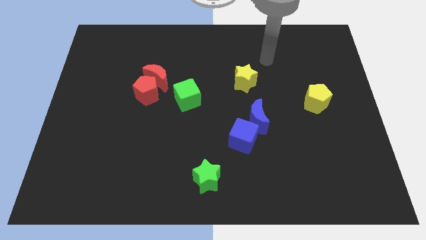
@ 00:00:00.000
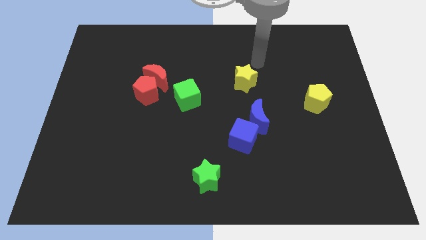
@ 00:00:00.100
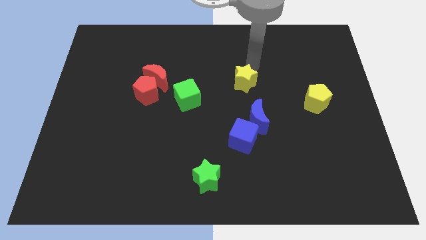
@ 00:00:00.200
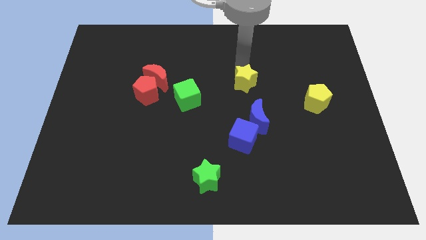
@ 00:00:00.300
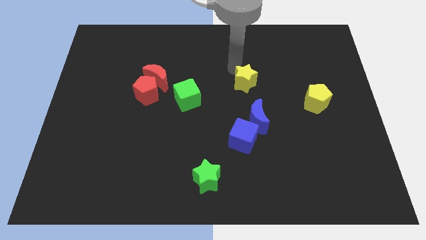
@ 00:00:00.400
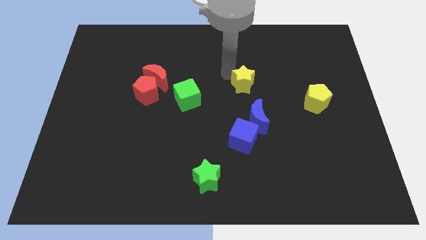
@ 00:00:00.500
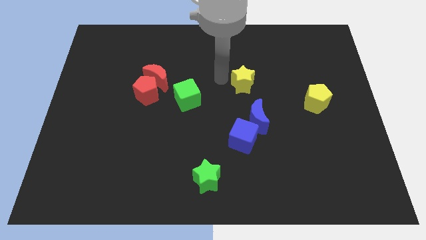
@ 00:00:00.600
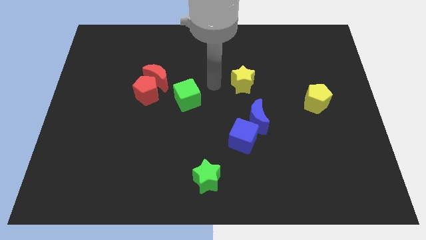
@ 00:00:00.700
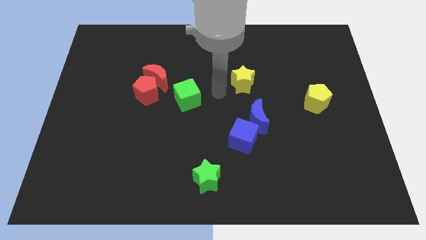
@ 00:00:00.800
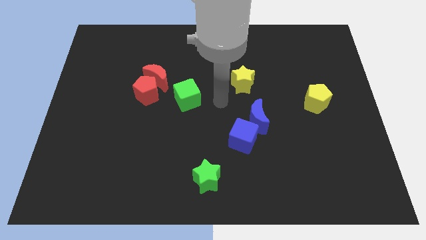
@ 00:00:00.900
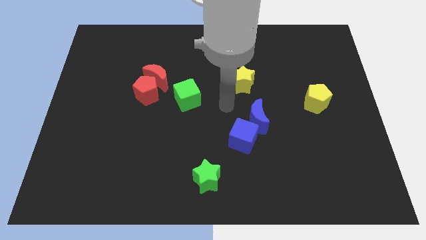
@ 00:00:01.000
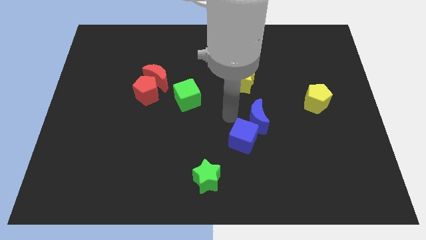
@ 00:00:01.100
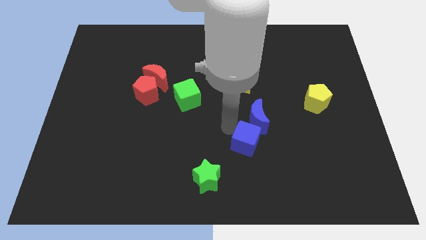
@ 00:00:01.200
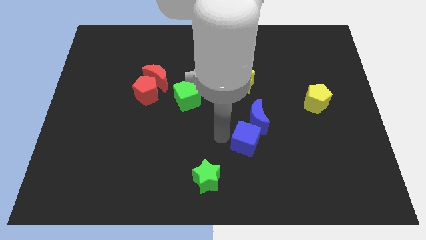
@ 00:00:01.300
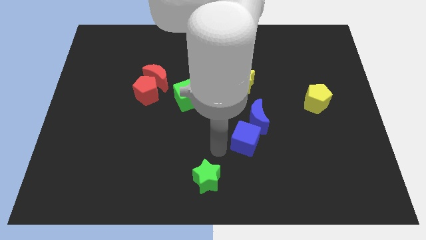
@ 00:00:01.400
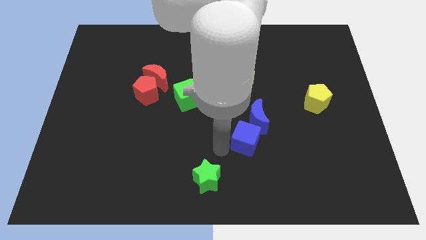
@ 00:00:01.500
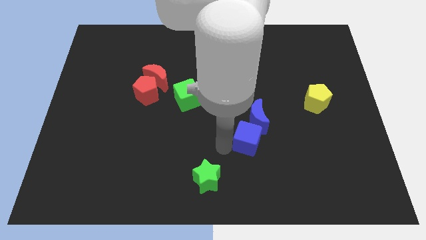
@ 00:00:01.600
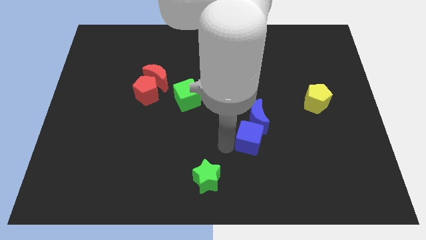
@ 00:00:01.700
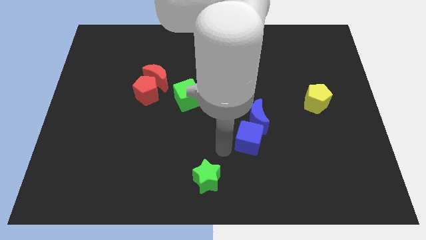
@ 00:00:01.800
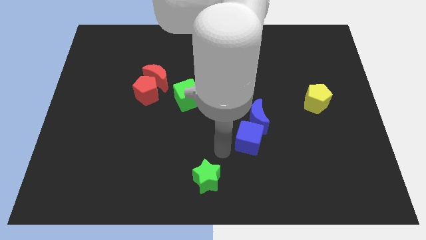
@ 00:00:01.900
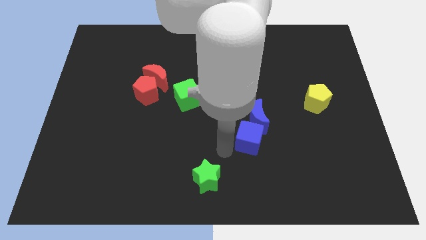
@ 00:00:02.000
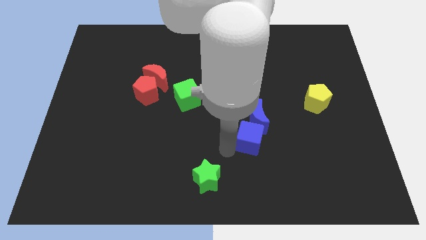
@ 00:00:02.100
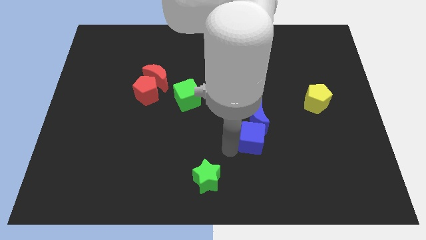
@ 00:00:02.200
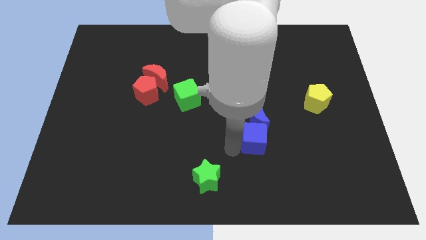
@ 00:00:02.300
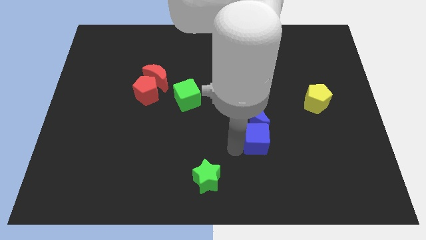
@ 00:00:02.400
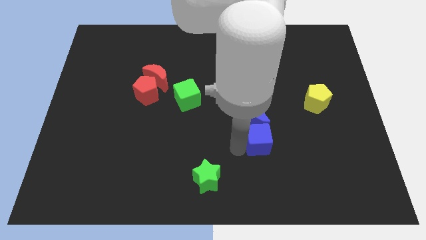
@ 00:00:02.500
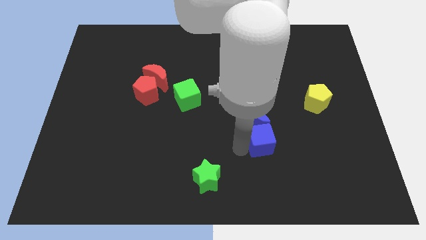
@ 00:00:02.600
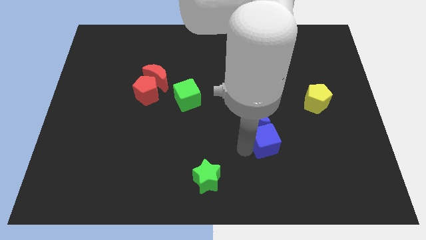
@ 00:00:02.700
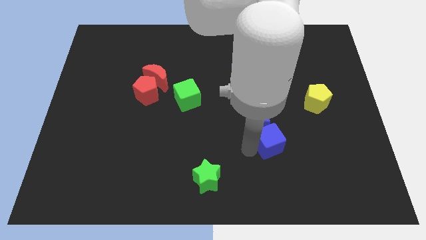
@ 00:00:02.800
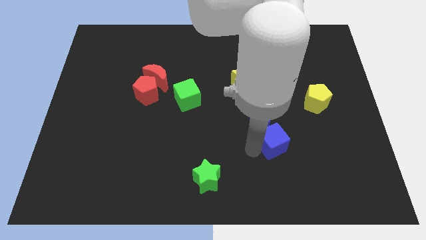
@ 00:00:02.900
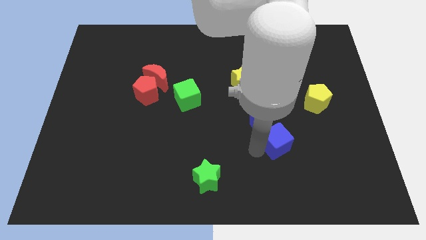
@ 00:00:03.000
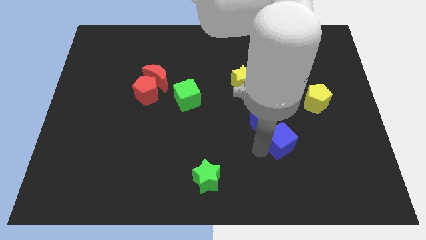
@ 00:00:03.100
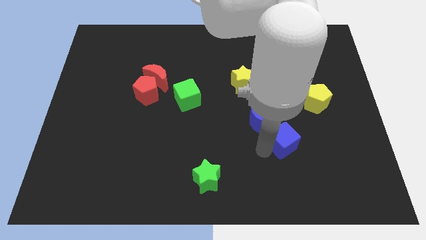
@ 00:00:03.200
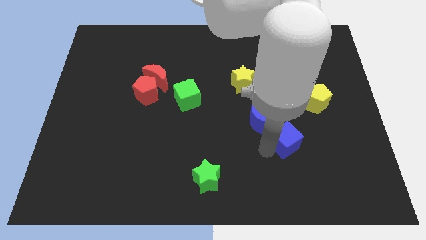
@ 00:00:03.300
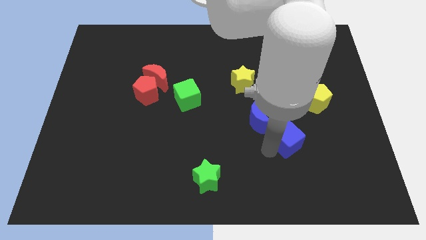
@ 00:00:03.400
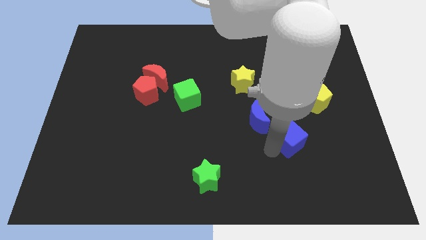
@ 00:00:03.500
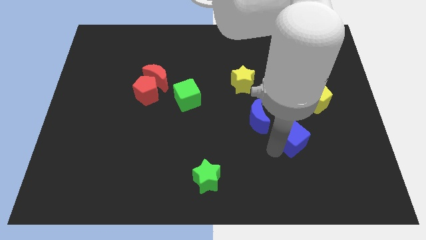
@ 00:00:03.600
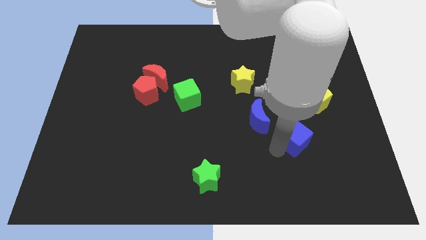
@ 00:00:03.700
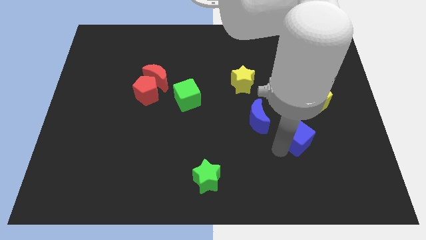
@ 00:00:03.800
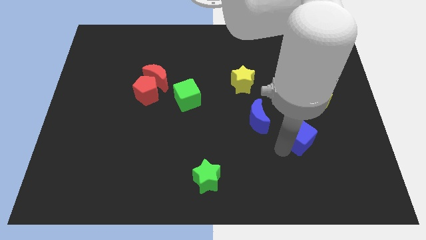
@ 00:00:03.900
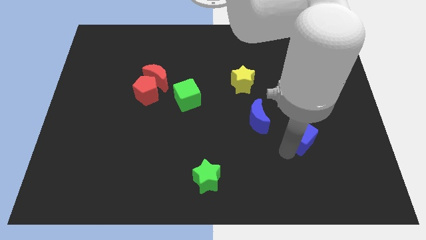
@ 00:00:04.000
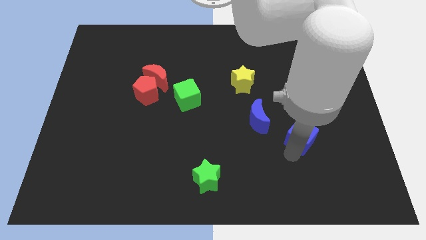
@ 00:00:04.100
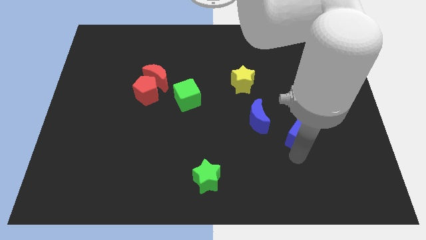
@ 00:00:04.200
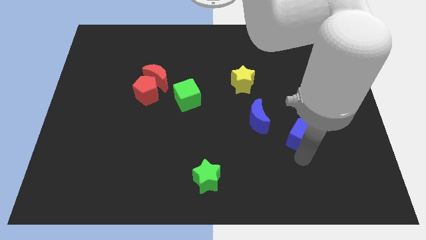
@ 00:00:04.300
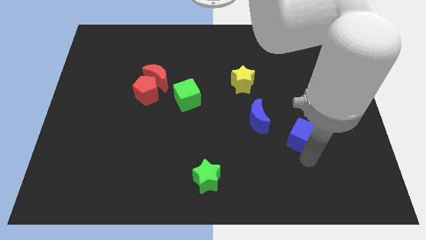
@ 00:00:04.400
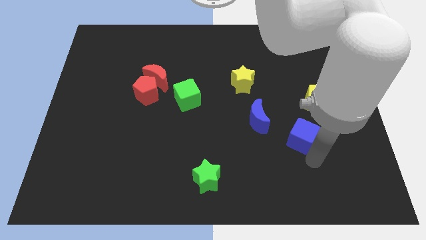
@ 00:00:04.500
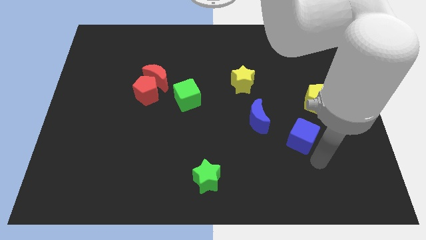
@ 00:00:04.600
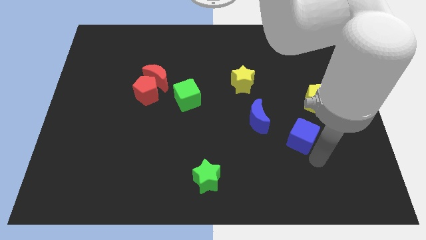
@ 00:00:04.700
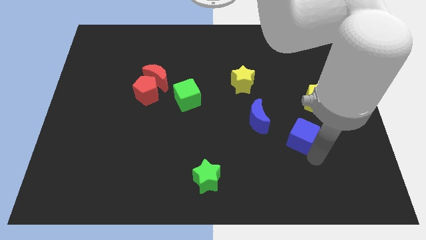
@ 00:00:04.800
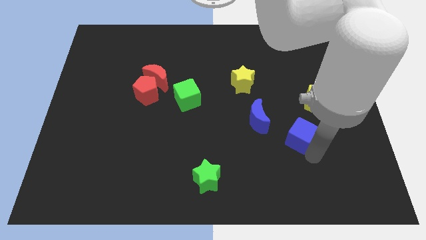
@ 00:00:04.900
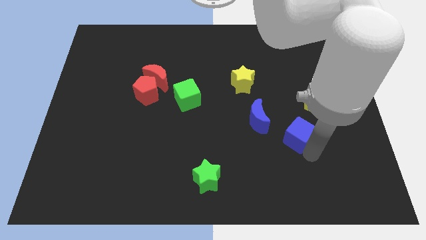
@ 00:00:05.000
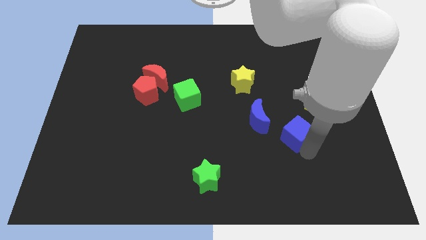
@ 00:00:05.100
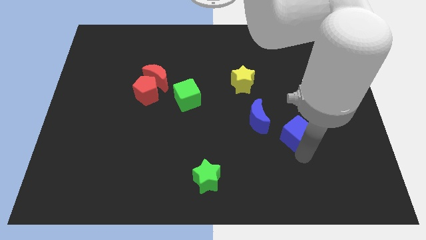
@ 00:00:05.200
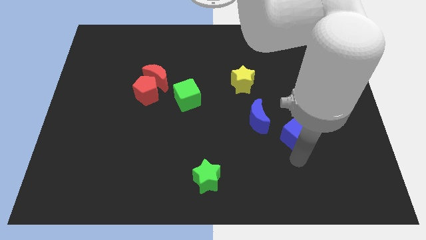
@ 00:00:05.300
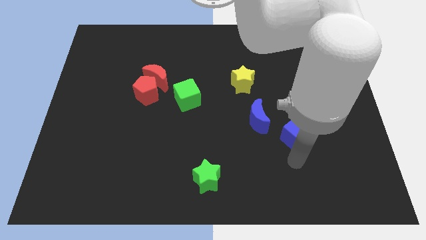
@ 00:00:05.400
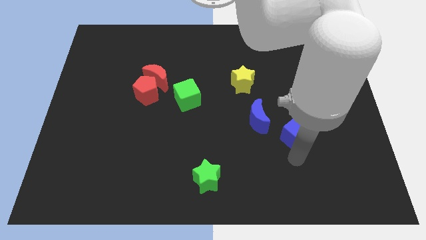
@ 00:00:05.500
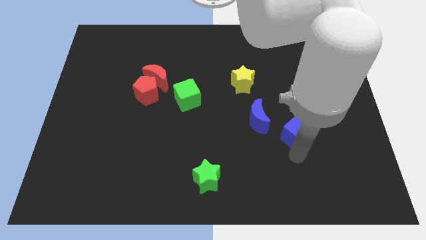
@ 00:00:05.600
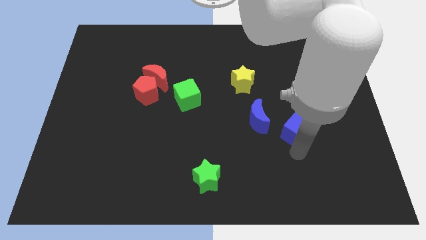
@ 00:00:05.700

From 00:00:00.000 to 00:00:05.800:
push the blue cube diagonally up and right somewhat

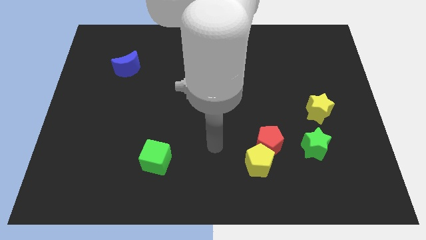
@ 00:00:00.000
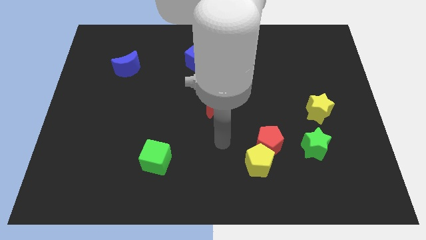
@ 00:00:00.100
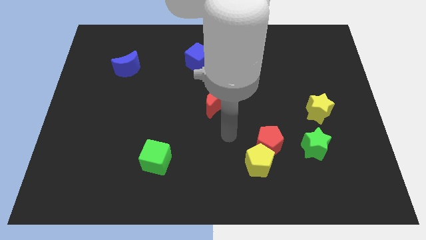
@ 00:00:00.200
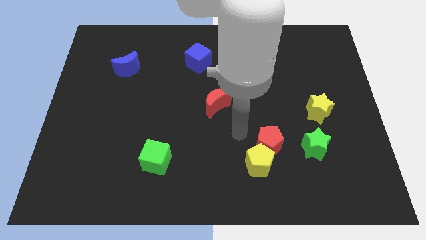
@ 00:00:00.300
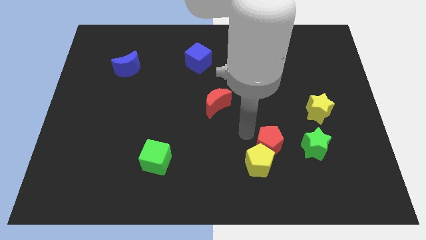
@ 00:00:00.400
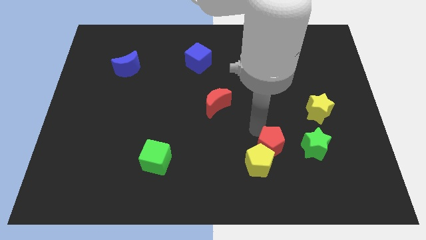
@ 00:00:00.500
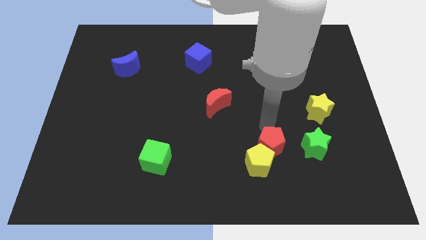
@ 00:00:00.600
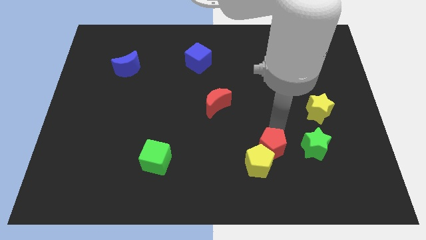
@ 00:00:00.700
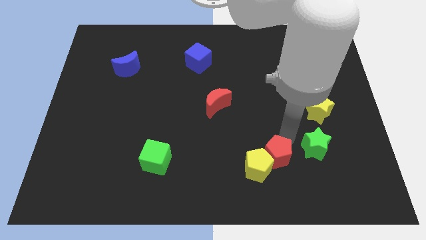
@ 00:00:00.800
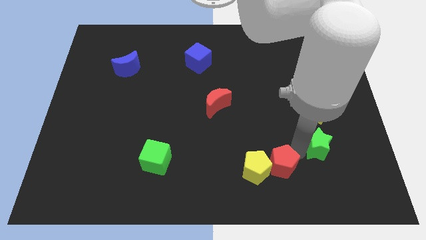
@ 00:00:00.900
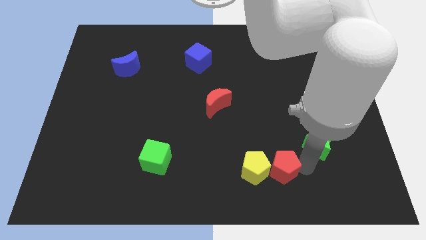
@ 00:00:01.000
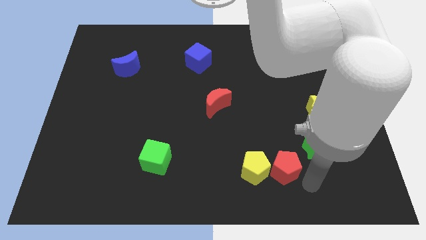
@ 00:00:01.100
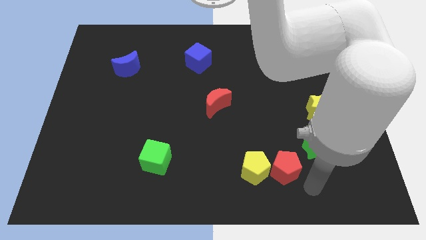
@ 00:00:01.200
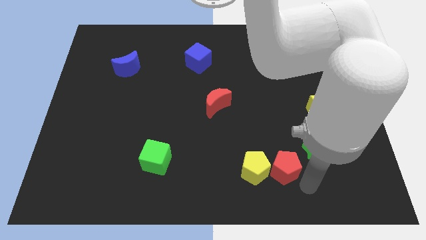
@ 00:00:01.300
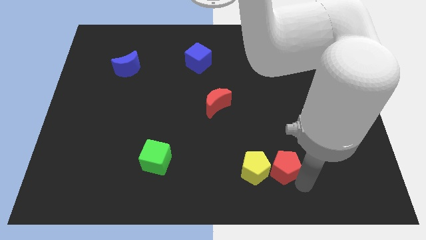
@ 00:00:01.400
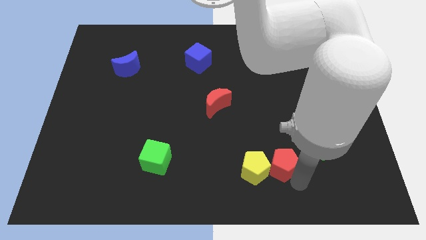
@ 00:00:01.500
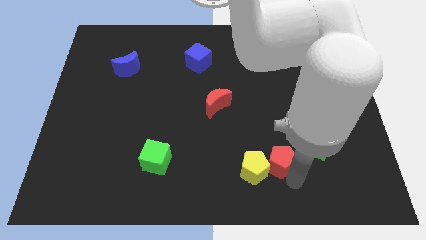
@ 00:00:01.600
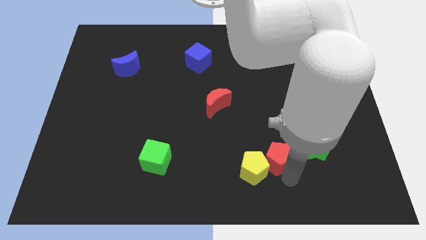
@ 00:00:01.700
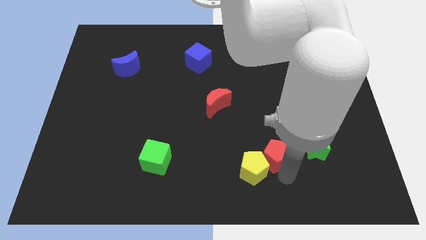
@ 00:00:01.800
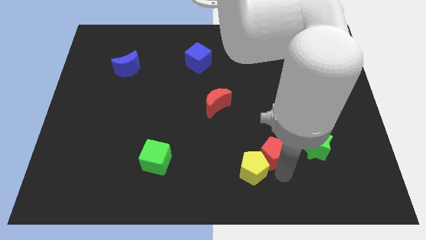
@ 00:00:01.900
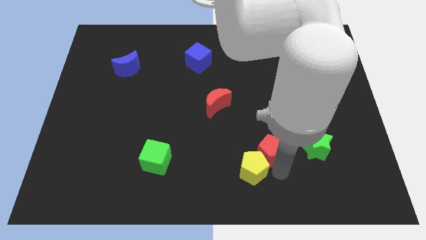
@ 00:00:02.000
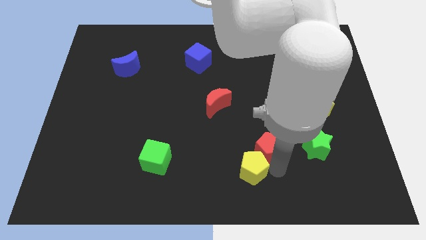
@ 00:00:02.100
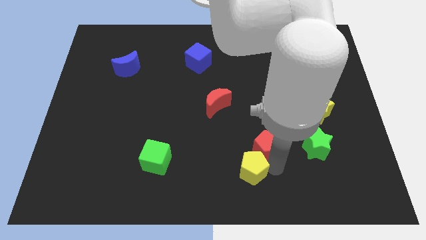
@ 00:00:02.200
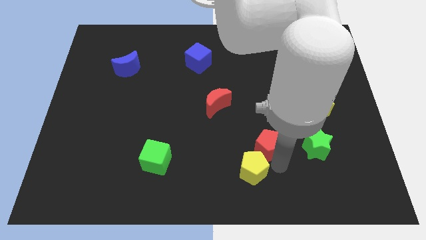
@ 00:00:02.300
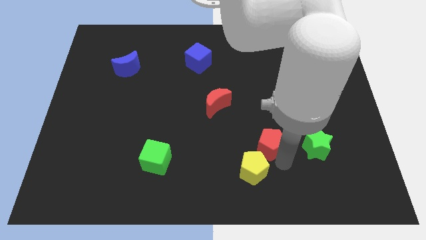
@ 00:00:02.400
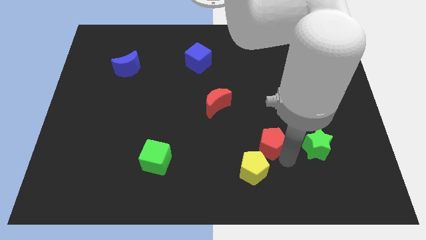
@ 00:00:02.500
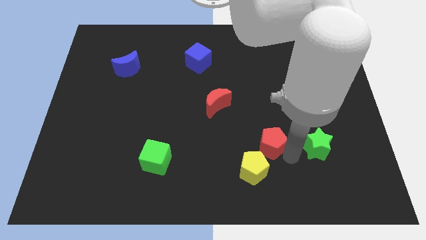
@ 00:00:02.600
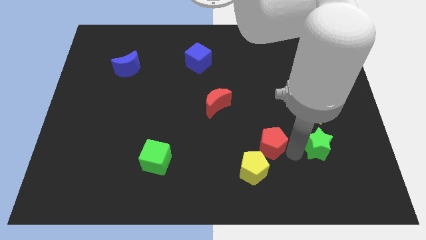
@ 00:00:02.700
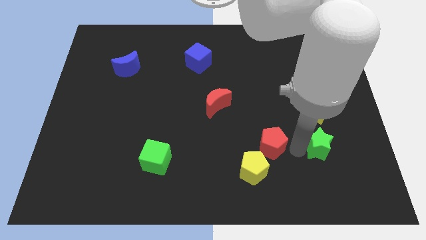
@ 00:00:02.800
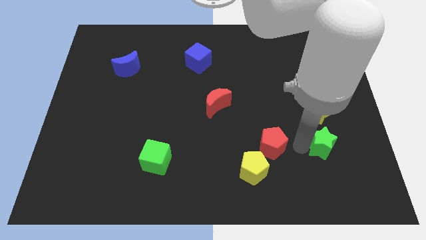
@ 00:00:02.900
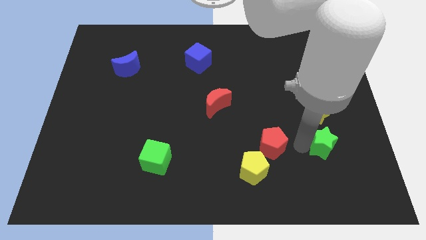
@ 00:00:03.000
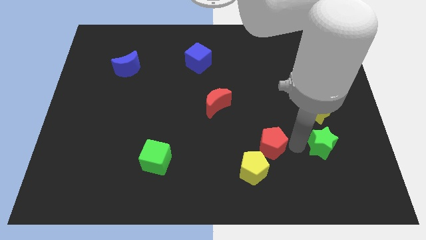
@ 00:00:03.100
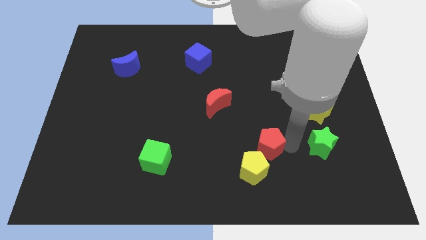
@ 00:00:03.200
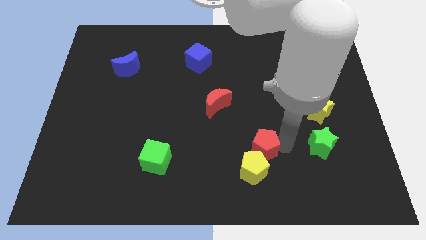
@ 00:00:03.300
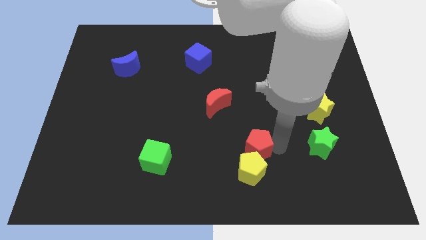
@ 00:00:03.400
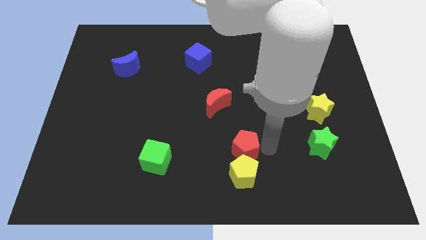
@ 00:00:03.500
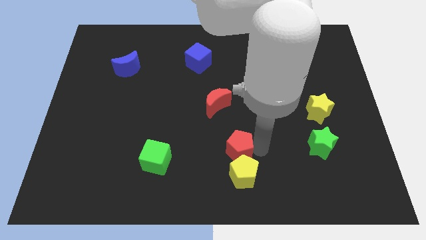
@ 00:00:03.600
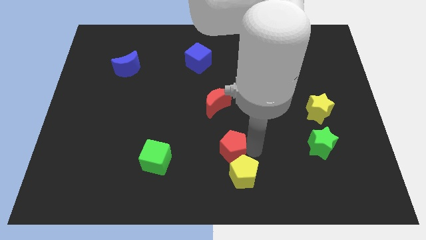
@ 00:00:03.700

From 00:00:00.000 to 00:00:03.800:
move the red pentagon slightly left
